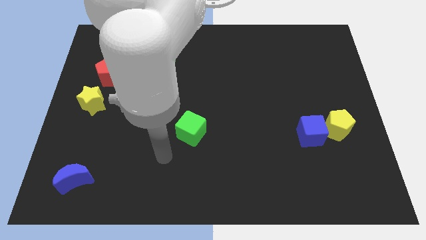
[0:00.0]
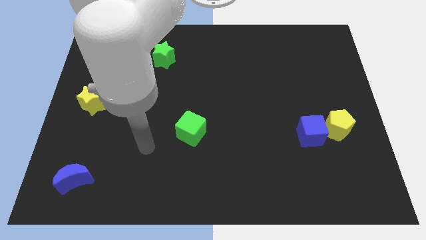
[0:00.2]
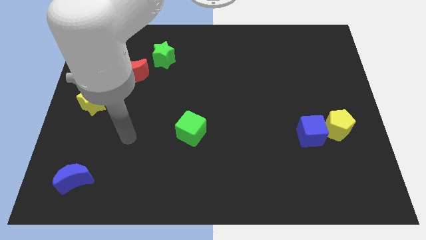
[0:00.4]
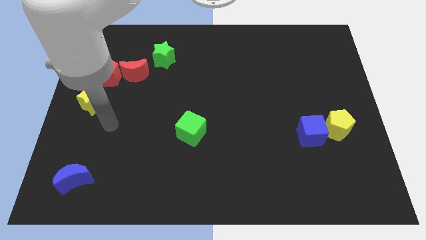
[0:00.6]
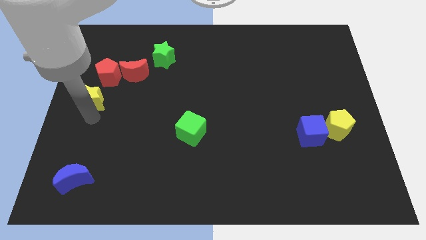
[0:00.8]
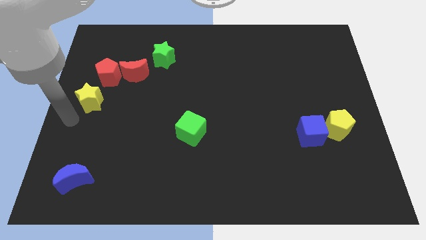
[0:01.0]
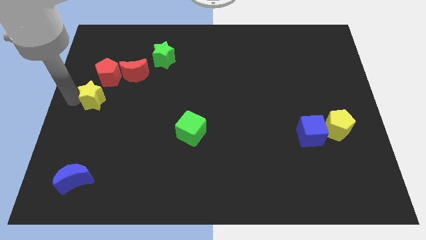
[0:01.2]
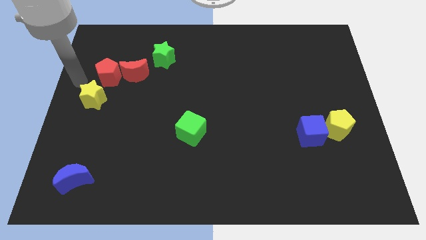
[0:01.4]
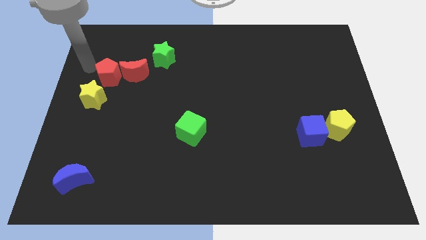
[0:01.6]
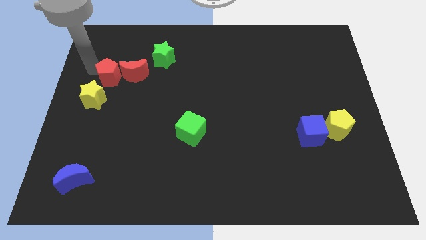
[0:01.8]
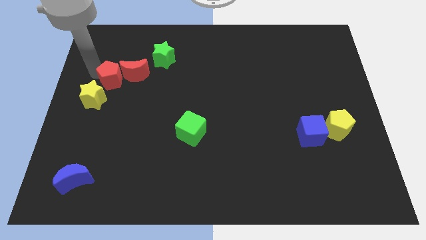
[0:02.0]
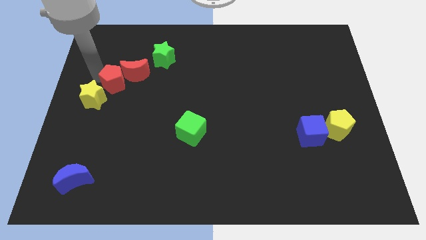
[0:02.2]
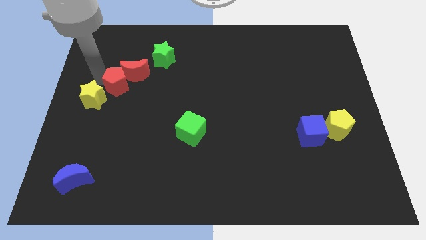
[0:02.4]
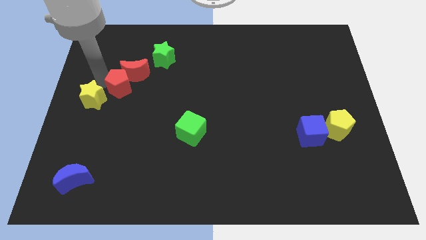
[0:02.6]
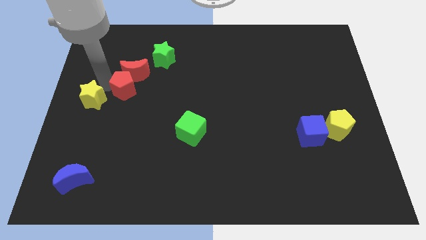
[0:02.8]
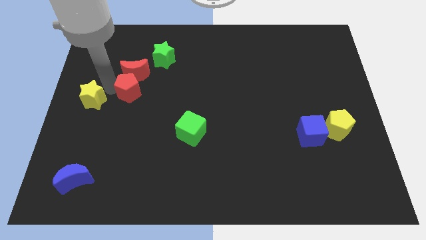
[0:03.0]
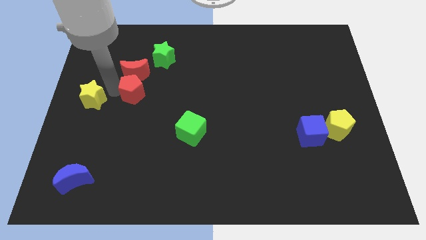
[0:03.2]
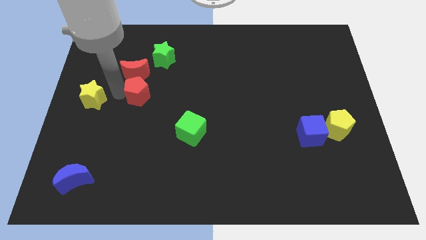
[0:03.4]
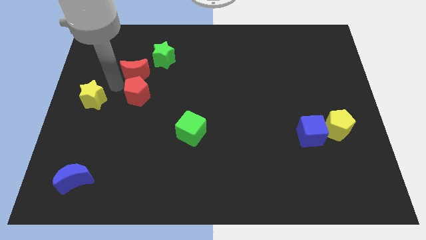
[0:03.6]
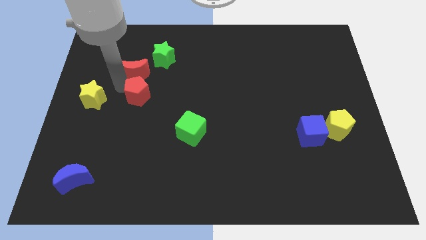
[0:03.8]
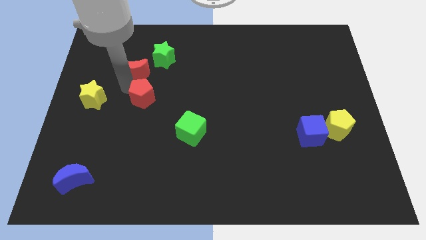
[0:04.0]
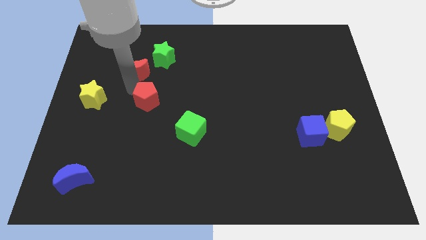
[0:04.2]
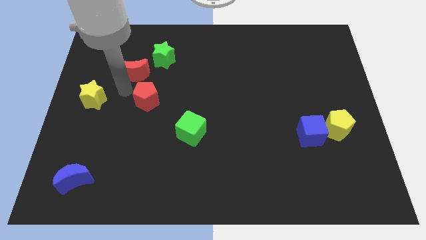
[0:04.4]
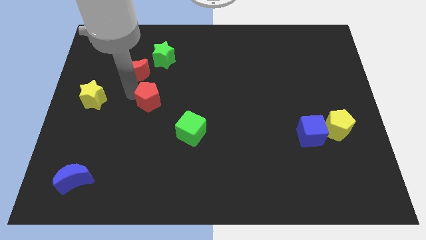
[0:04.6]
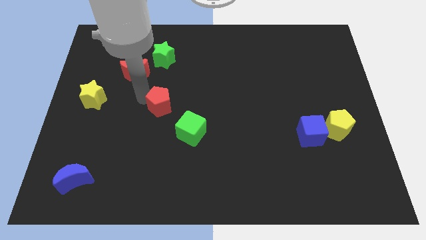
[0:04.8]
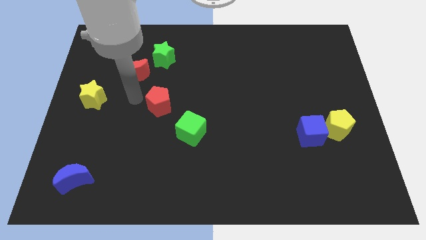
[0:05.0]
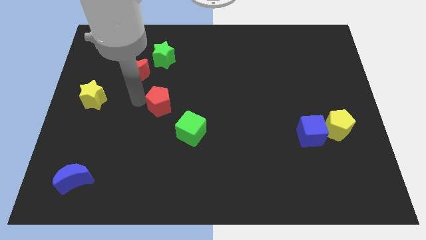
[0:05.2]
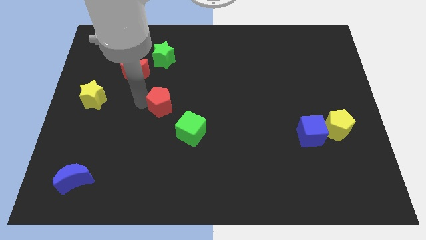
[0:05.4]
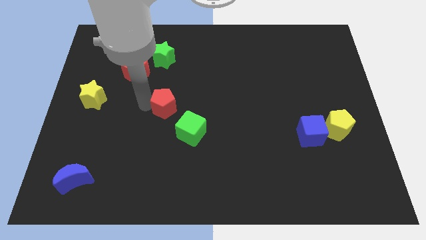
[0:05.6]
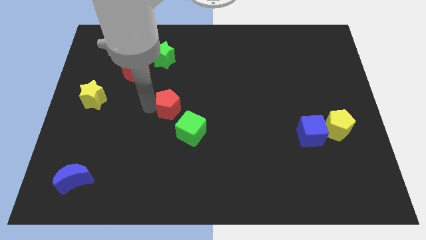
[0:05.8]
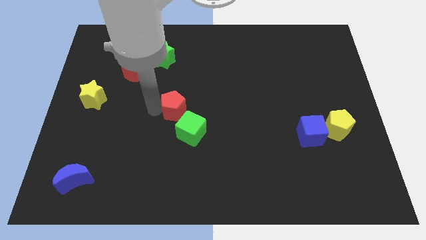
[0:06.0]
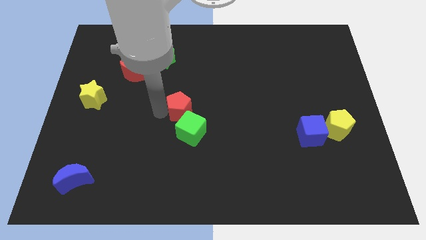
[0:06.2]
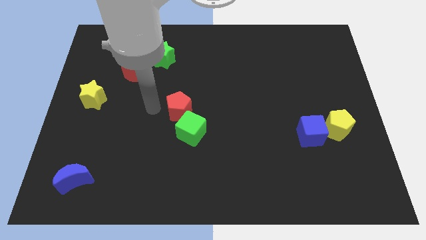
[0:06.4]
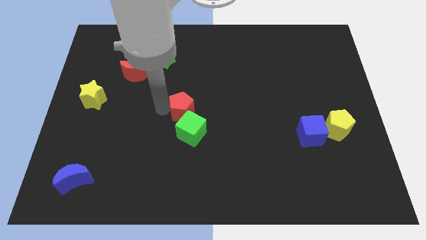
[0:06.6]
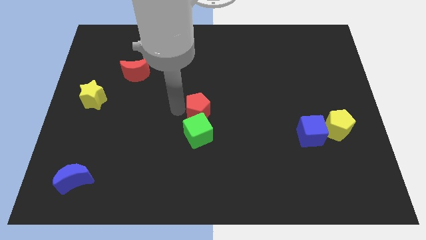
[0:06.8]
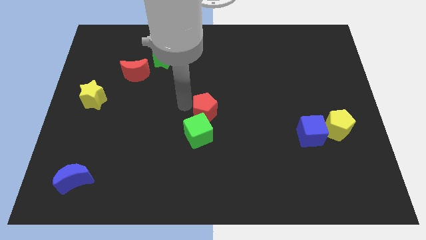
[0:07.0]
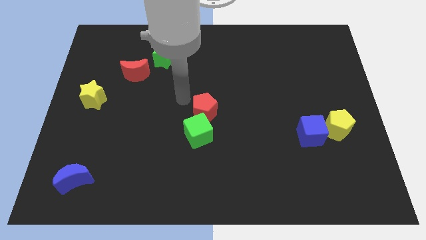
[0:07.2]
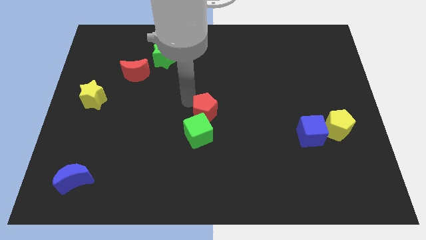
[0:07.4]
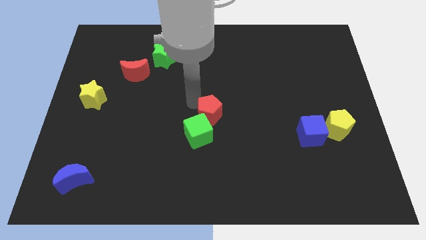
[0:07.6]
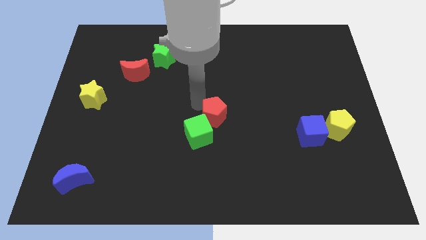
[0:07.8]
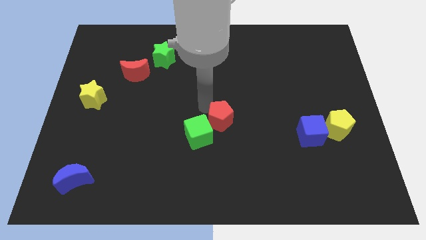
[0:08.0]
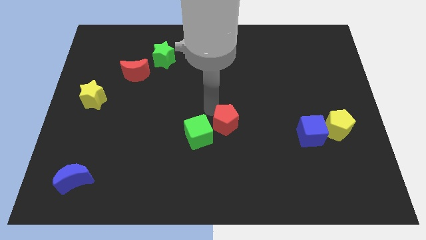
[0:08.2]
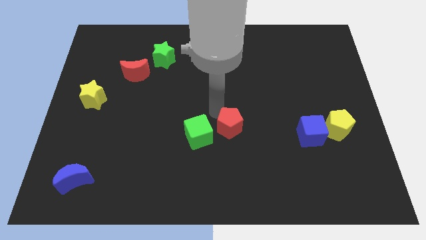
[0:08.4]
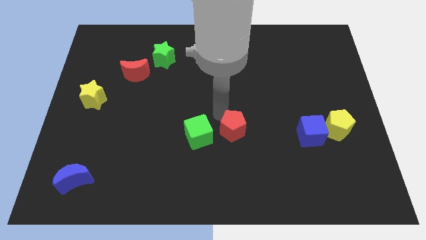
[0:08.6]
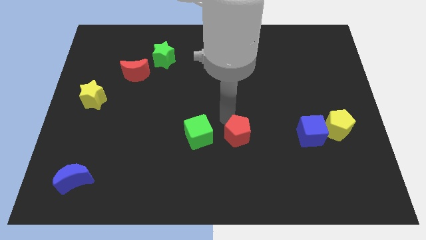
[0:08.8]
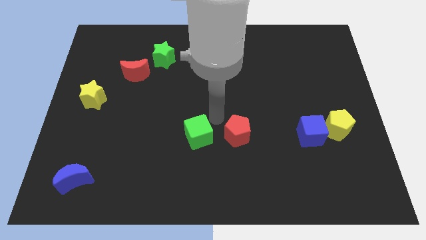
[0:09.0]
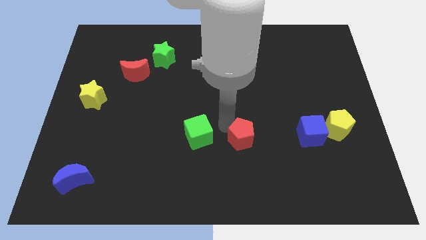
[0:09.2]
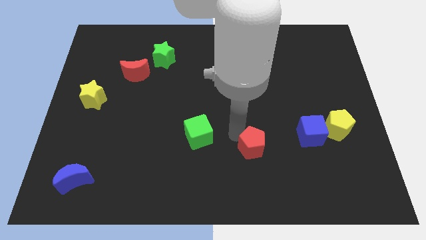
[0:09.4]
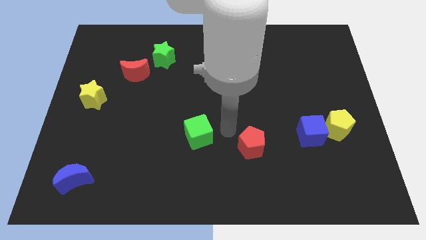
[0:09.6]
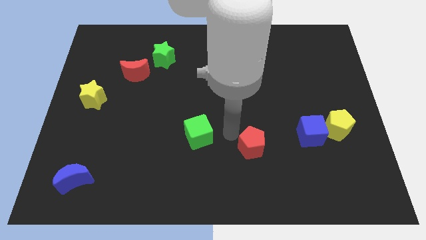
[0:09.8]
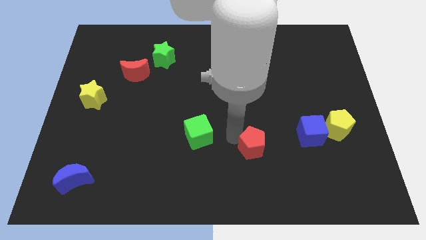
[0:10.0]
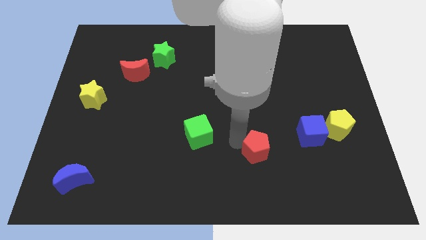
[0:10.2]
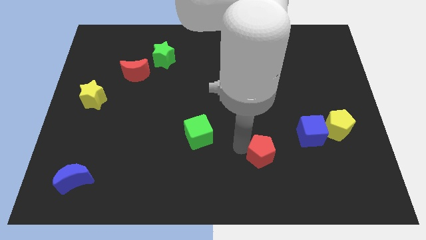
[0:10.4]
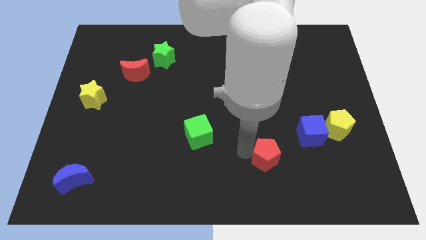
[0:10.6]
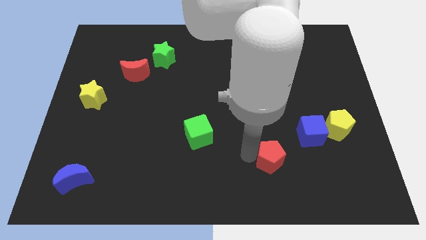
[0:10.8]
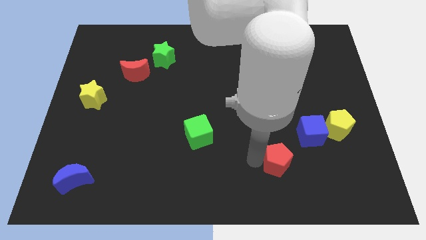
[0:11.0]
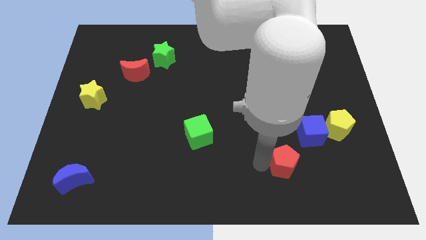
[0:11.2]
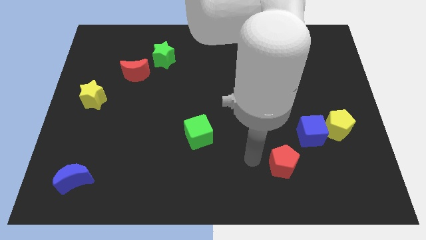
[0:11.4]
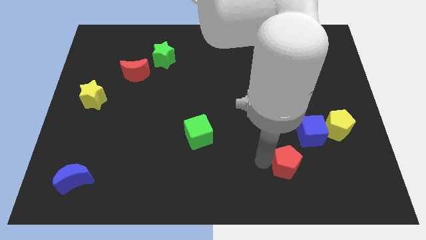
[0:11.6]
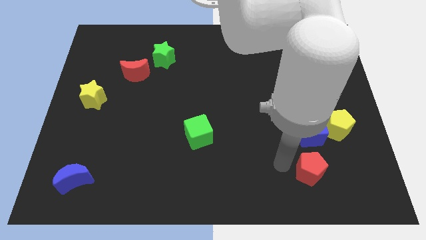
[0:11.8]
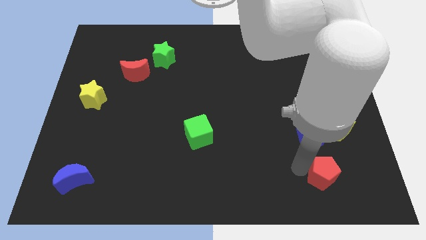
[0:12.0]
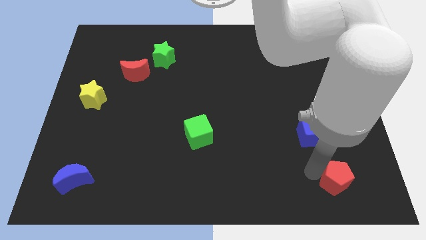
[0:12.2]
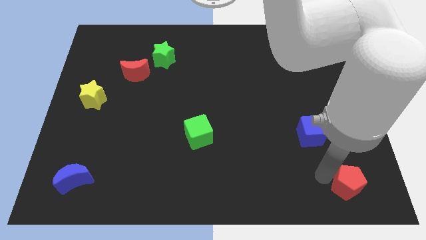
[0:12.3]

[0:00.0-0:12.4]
push the red pentagon to the lower right corner

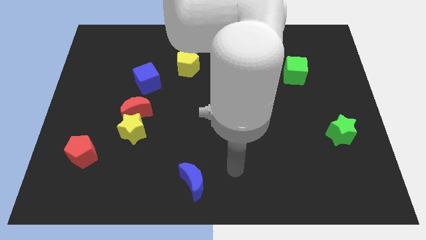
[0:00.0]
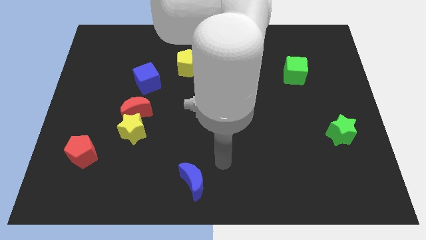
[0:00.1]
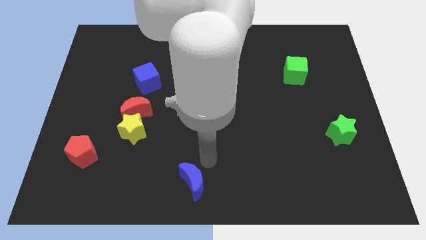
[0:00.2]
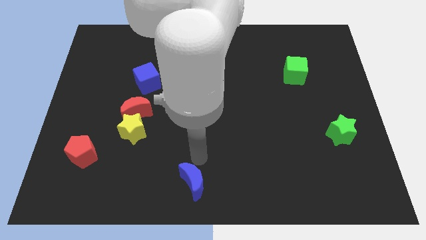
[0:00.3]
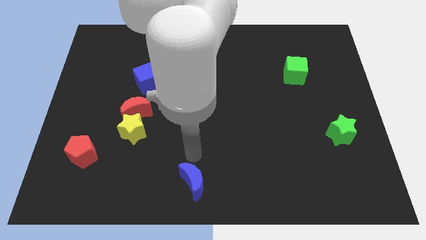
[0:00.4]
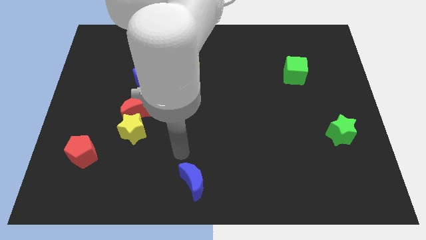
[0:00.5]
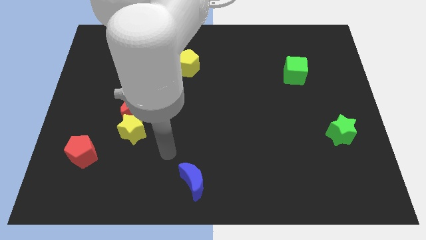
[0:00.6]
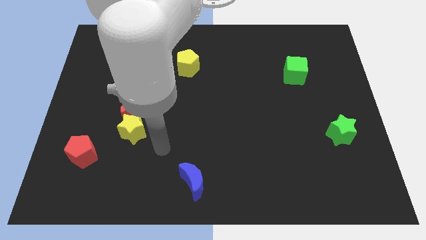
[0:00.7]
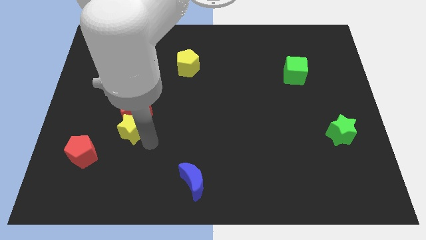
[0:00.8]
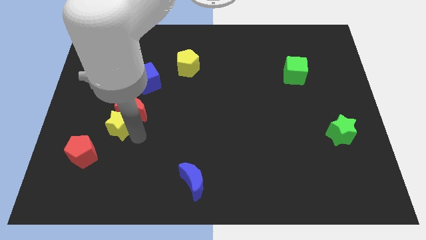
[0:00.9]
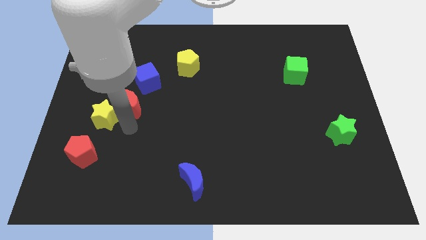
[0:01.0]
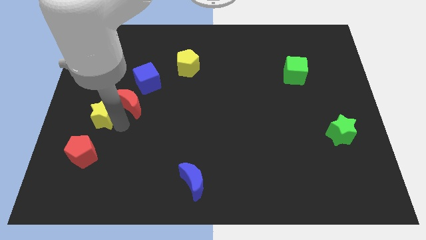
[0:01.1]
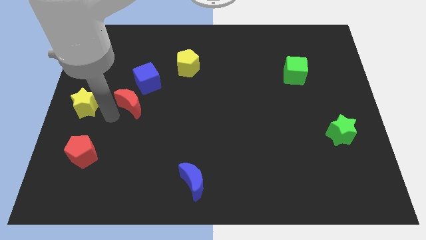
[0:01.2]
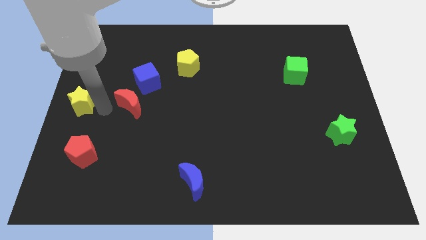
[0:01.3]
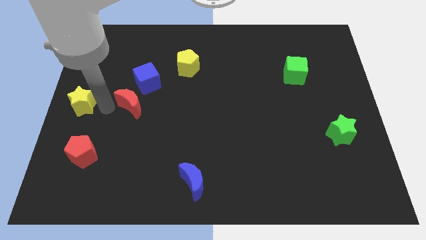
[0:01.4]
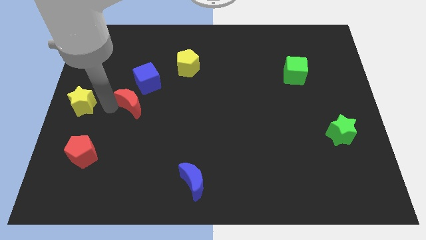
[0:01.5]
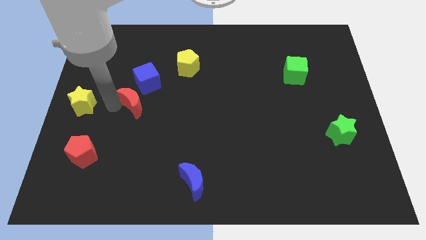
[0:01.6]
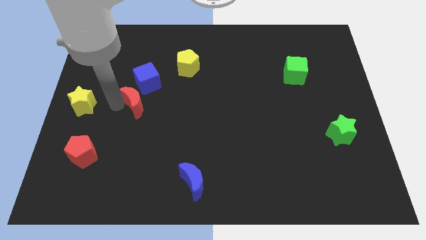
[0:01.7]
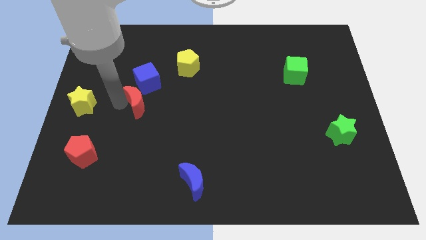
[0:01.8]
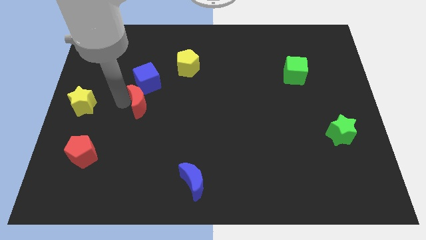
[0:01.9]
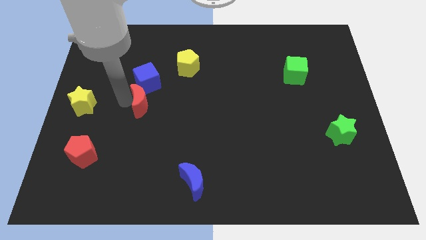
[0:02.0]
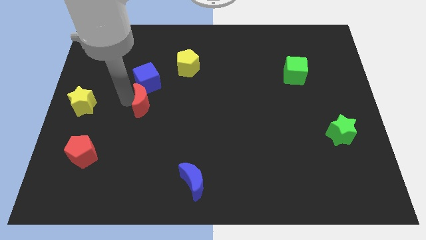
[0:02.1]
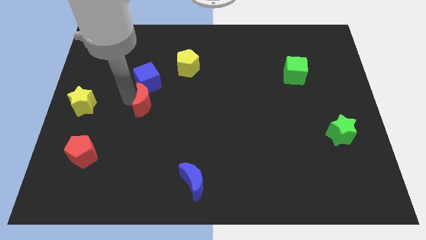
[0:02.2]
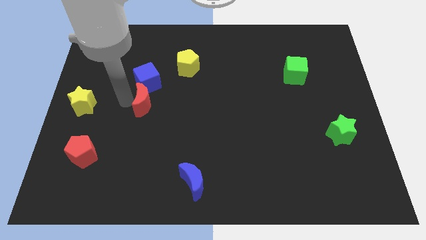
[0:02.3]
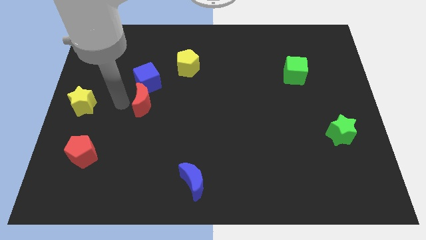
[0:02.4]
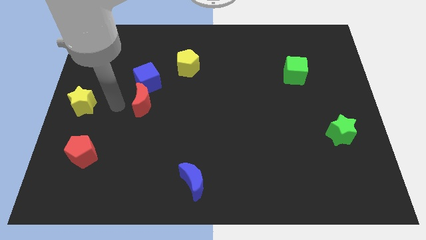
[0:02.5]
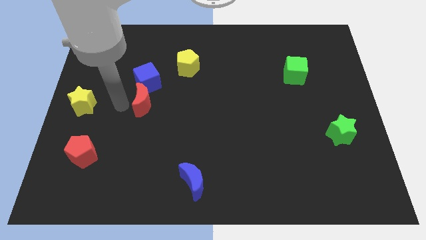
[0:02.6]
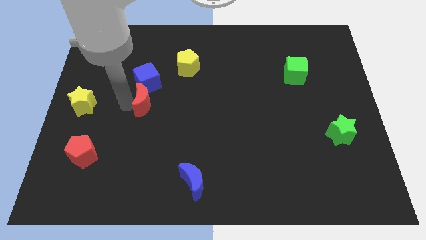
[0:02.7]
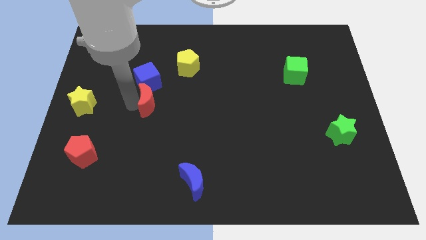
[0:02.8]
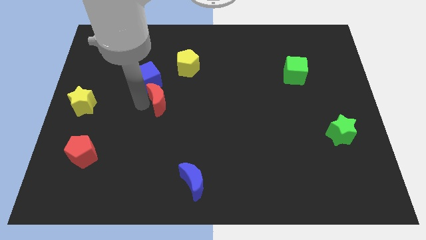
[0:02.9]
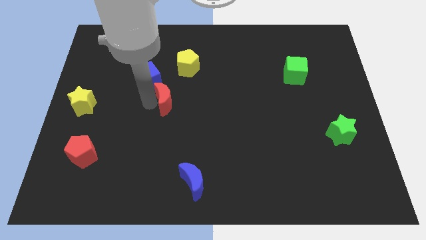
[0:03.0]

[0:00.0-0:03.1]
put the red moon to the middle of the board
